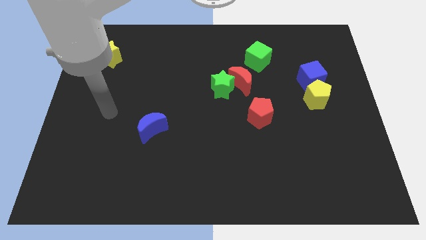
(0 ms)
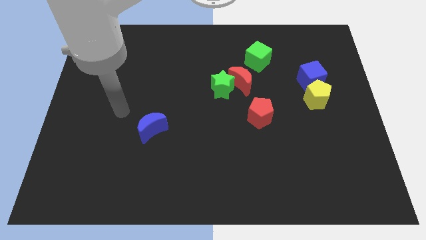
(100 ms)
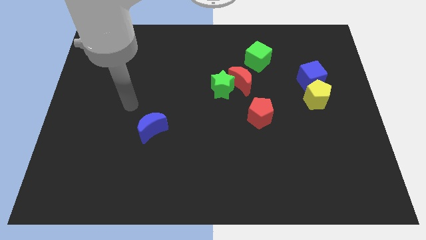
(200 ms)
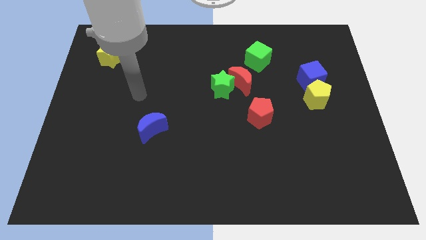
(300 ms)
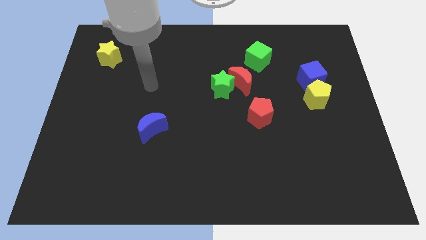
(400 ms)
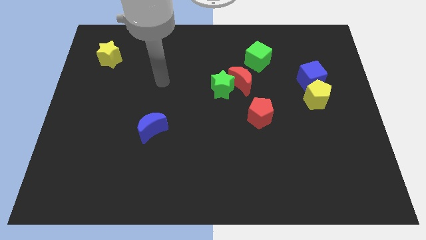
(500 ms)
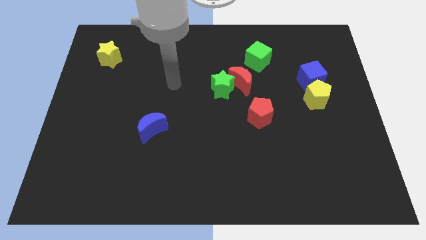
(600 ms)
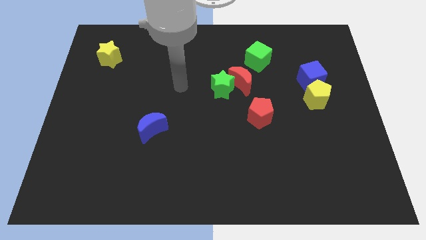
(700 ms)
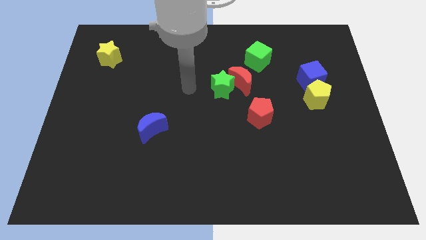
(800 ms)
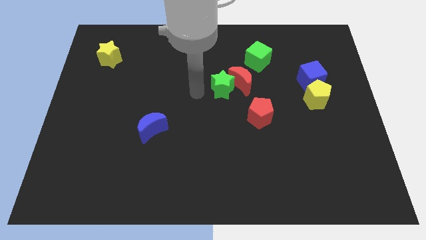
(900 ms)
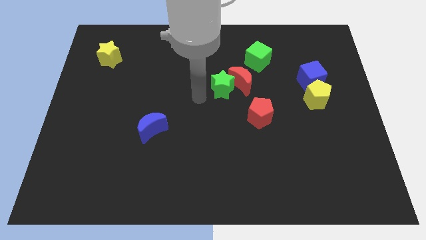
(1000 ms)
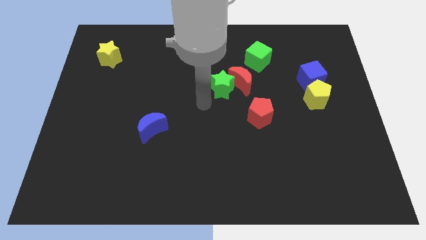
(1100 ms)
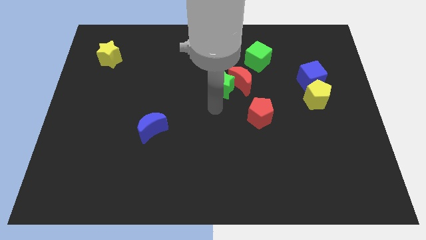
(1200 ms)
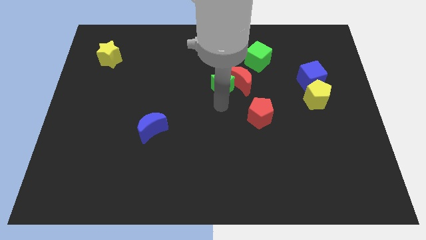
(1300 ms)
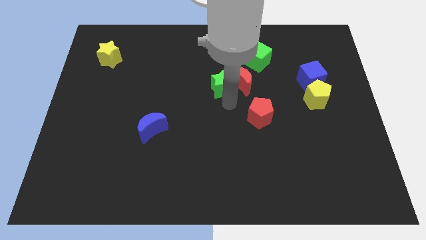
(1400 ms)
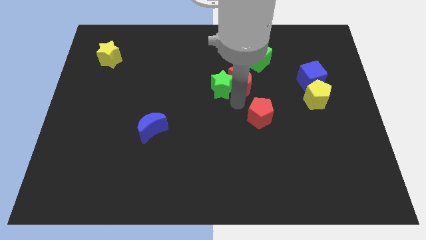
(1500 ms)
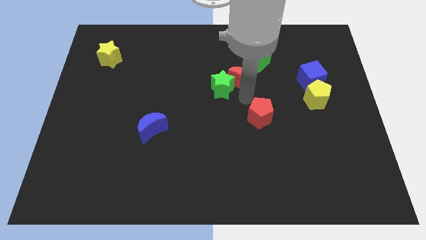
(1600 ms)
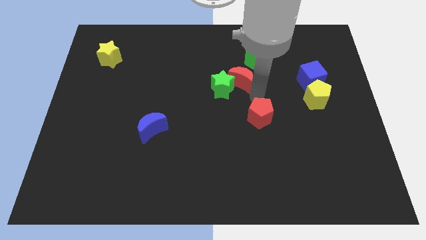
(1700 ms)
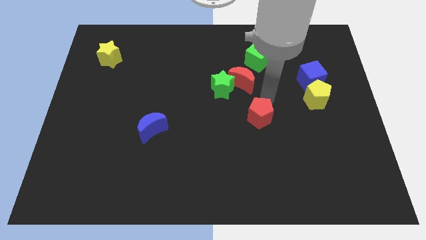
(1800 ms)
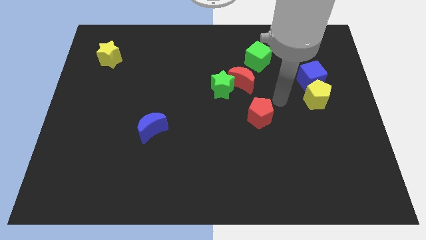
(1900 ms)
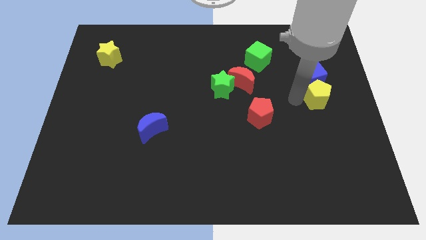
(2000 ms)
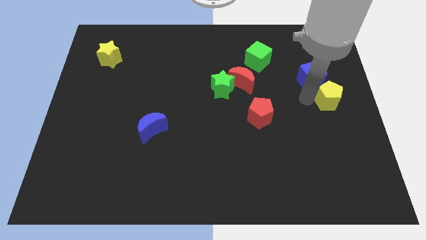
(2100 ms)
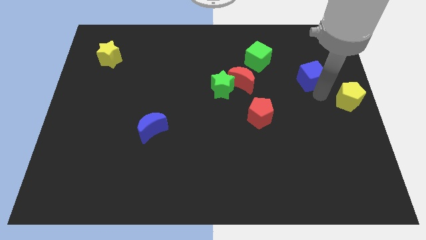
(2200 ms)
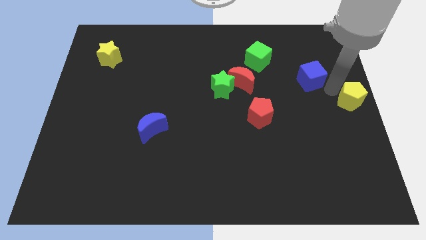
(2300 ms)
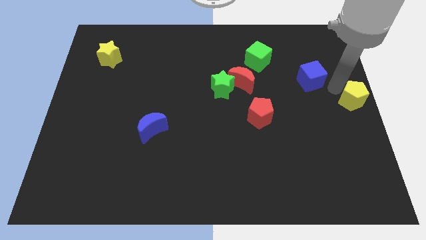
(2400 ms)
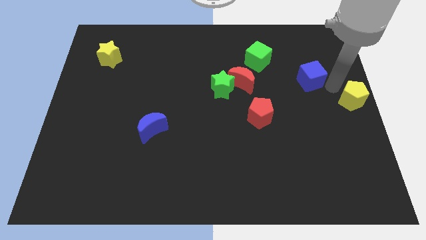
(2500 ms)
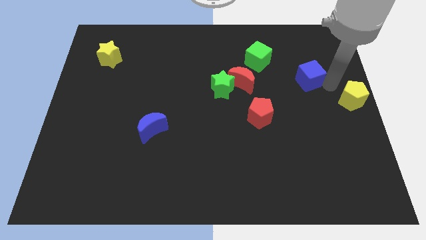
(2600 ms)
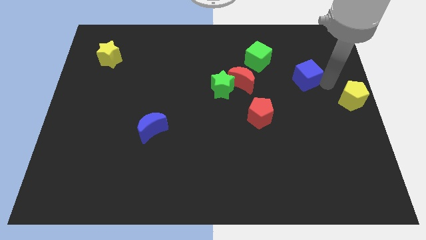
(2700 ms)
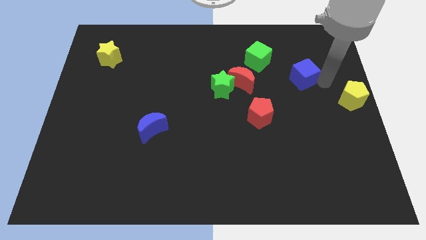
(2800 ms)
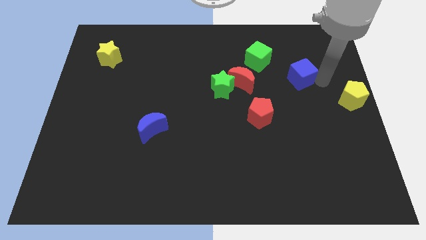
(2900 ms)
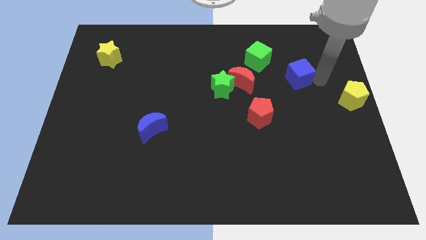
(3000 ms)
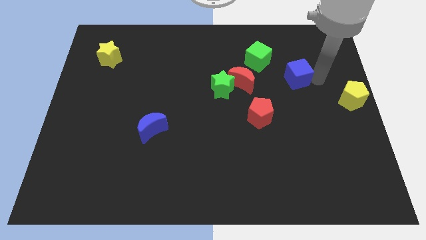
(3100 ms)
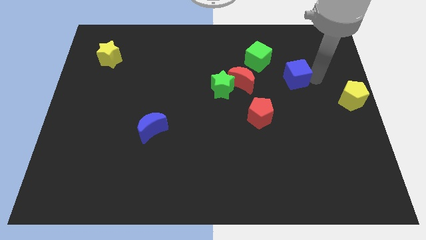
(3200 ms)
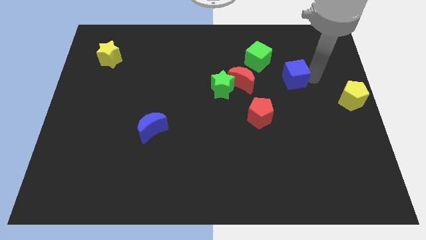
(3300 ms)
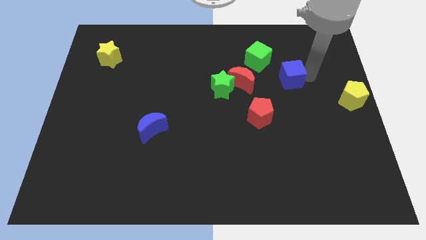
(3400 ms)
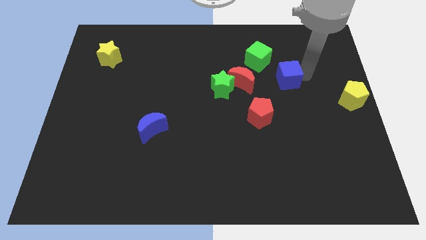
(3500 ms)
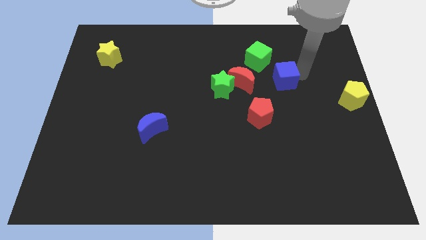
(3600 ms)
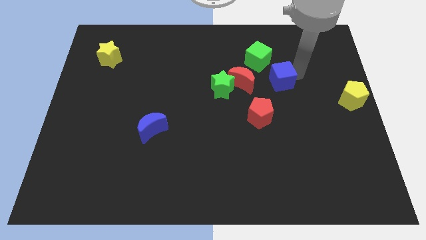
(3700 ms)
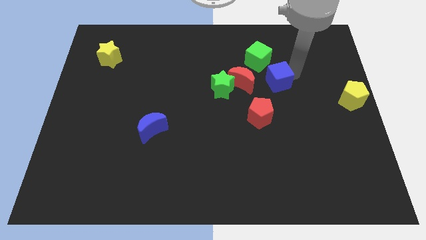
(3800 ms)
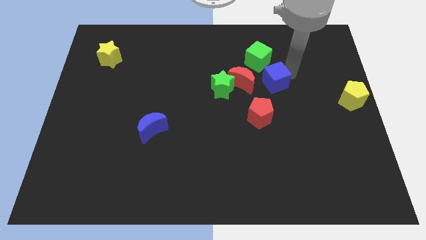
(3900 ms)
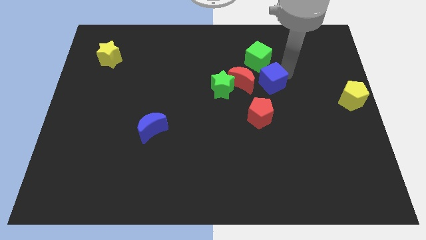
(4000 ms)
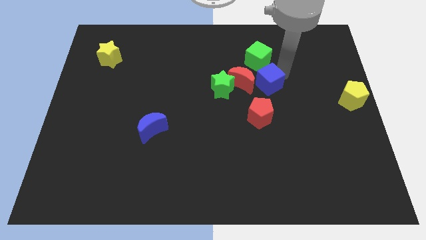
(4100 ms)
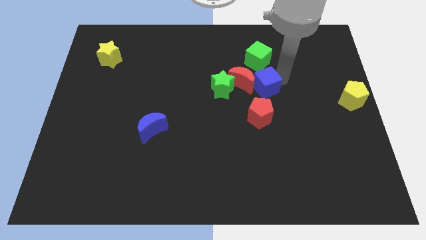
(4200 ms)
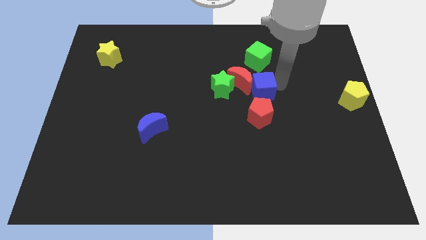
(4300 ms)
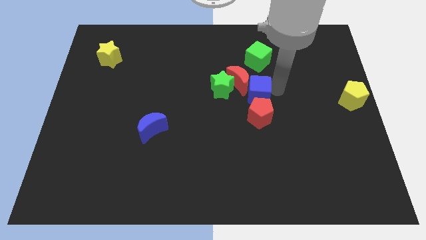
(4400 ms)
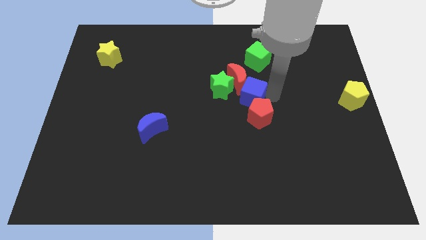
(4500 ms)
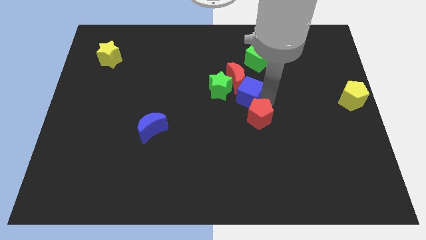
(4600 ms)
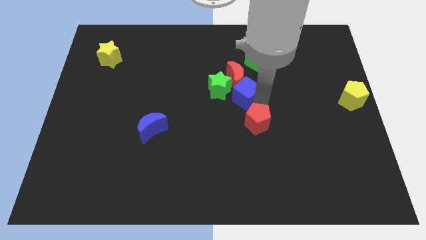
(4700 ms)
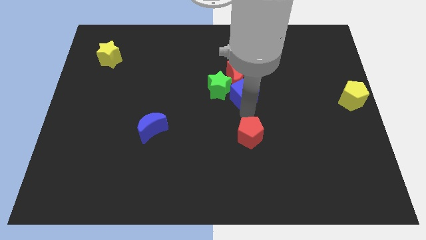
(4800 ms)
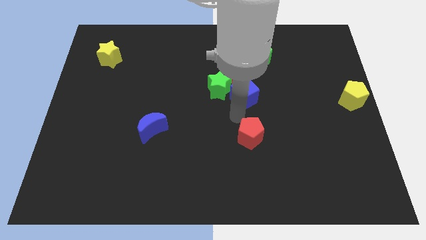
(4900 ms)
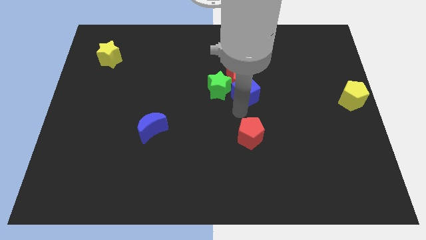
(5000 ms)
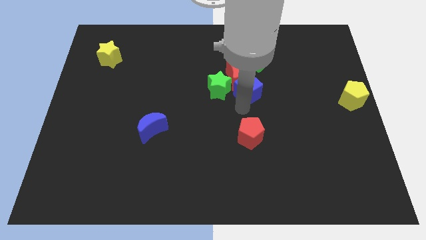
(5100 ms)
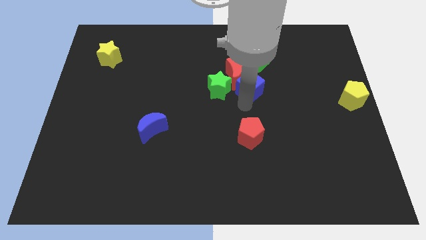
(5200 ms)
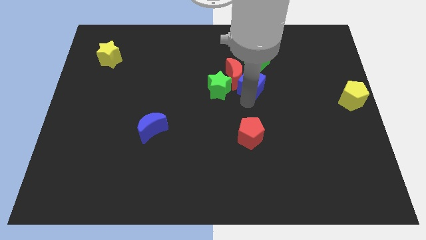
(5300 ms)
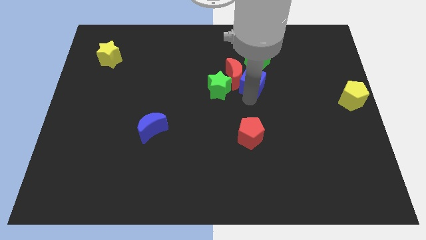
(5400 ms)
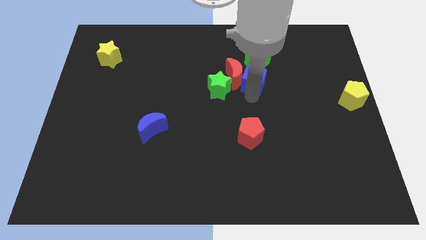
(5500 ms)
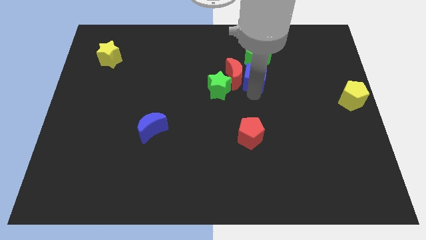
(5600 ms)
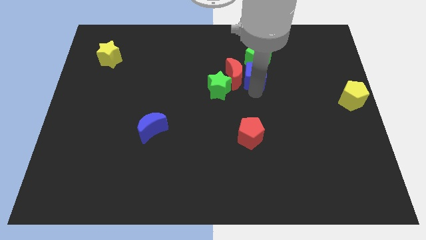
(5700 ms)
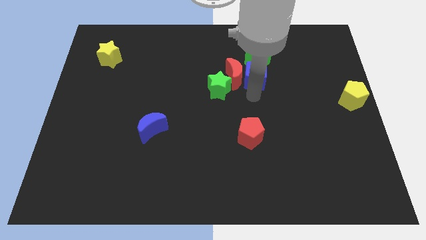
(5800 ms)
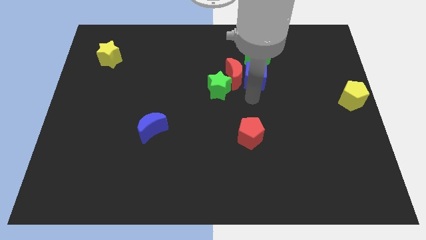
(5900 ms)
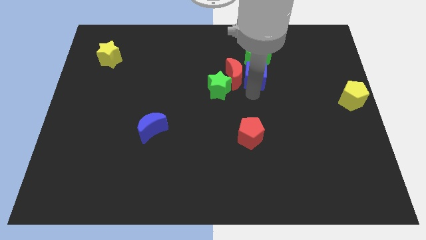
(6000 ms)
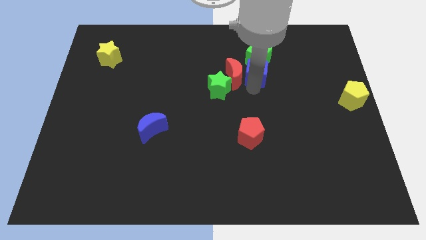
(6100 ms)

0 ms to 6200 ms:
push the blue cube towards the green cube

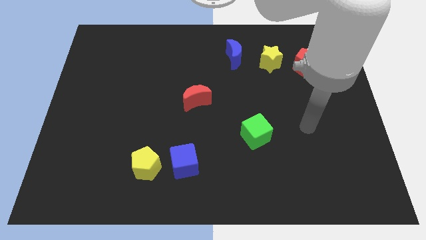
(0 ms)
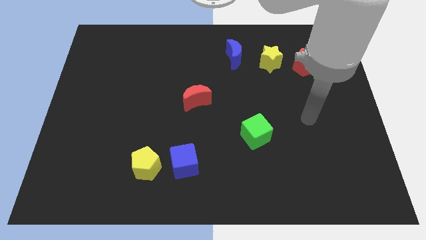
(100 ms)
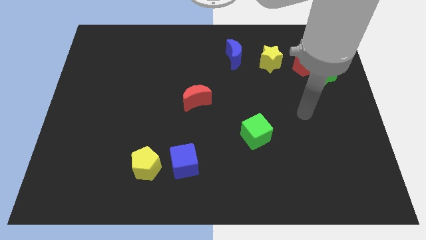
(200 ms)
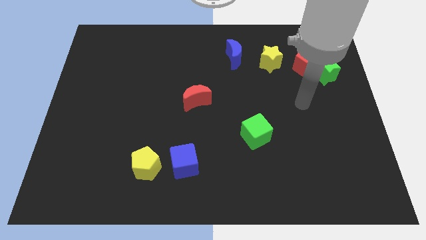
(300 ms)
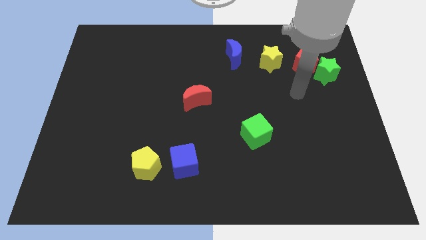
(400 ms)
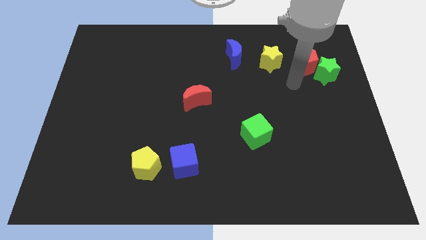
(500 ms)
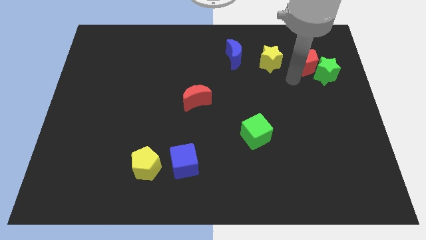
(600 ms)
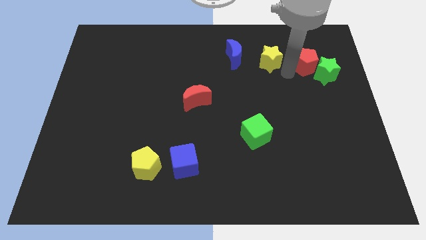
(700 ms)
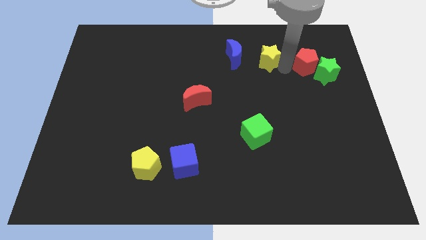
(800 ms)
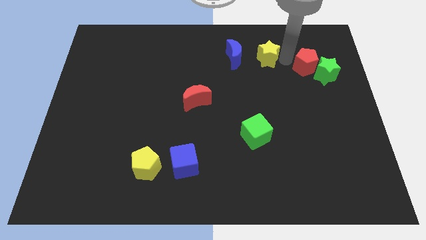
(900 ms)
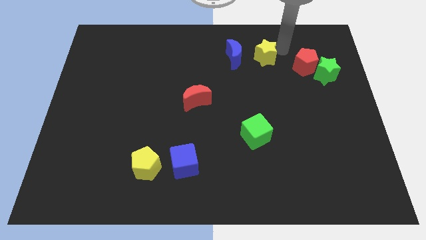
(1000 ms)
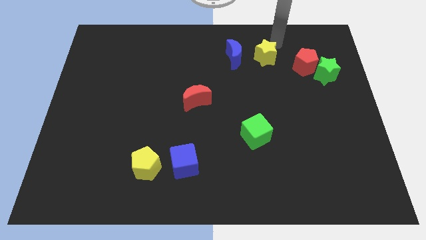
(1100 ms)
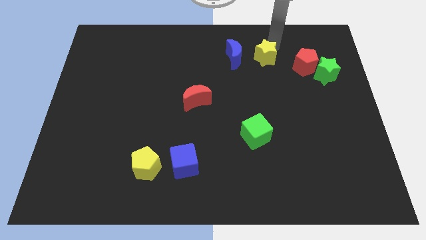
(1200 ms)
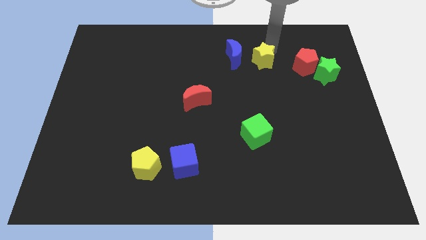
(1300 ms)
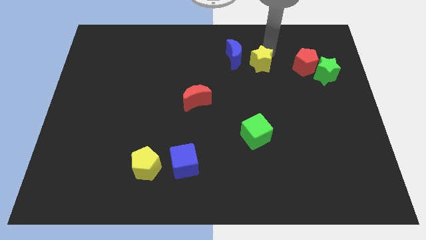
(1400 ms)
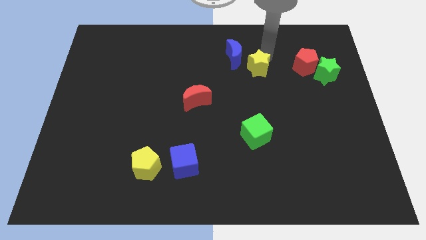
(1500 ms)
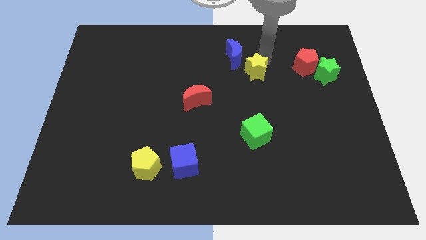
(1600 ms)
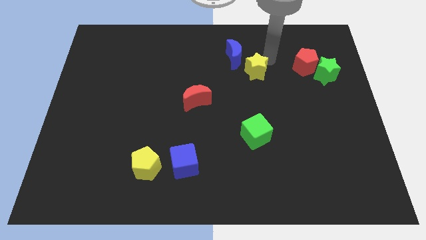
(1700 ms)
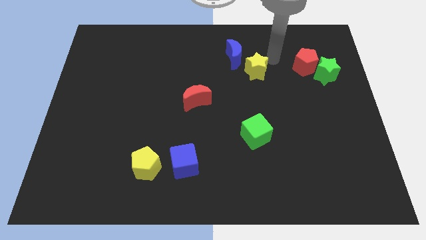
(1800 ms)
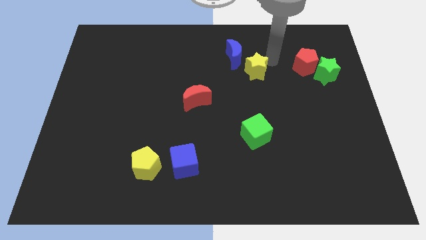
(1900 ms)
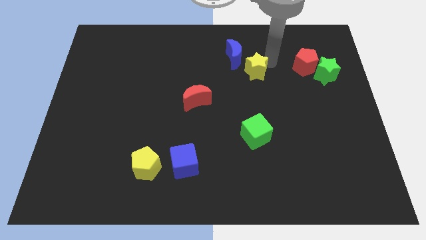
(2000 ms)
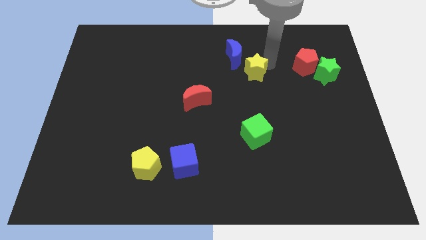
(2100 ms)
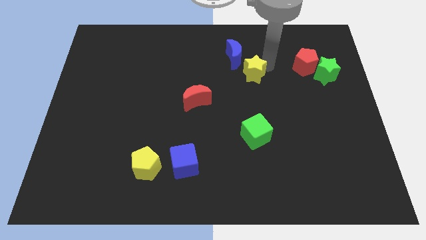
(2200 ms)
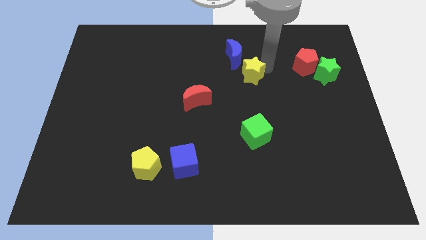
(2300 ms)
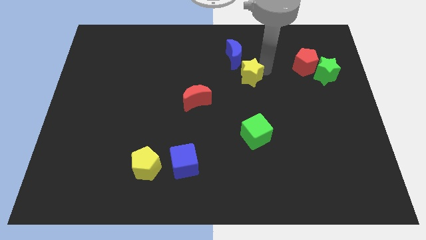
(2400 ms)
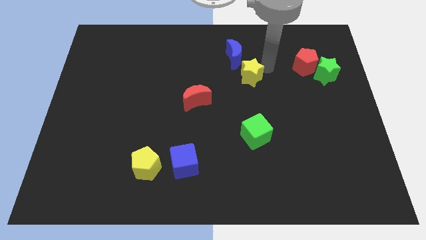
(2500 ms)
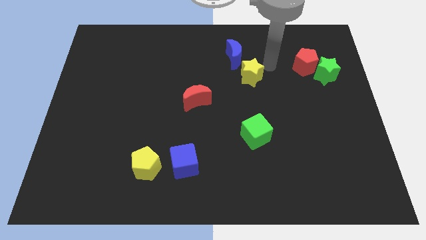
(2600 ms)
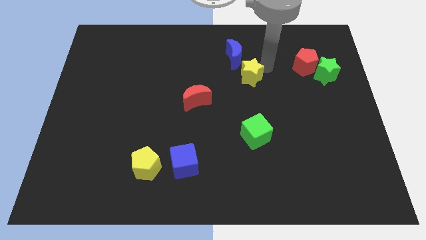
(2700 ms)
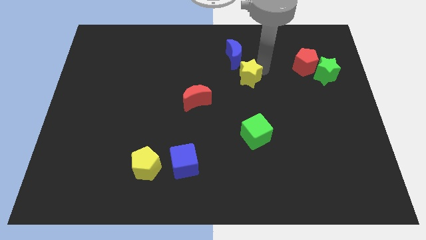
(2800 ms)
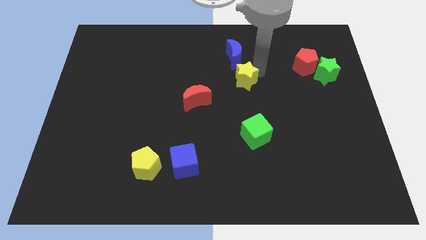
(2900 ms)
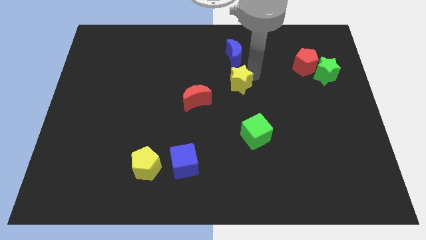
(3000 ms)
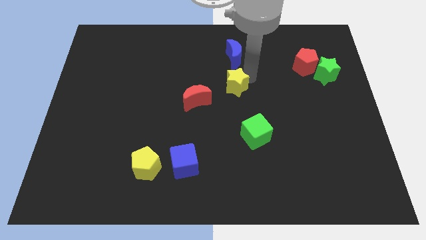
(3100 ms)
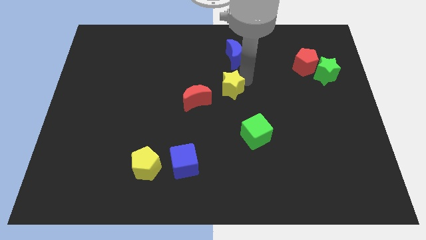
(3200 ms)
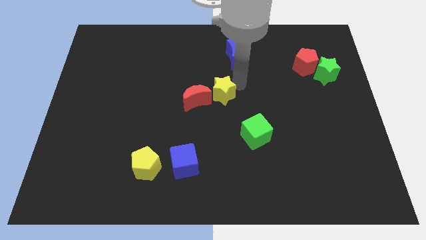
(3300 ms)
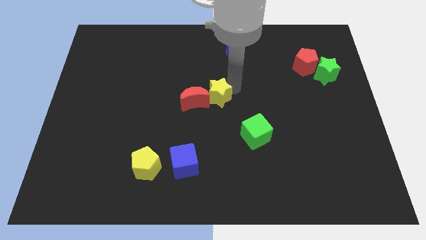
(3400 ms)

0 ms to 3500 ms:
slide the yellow star next to the red moon
